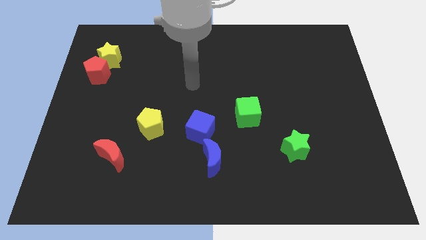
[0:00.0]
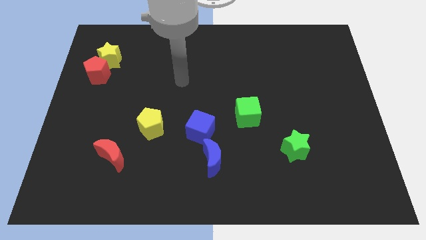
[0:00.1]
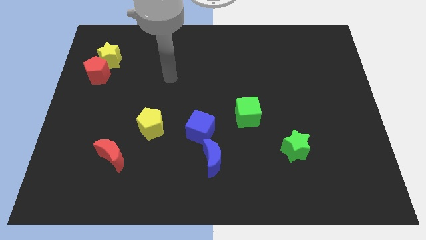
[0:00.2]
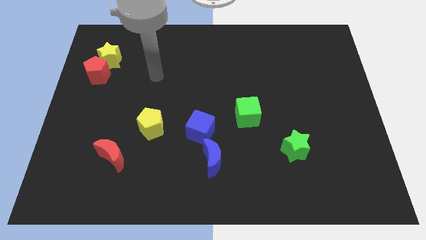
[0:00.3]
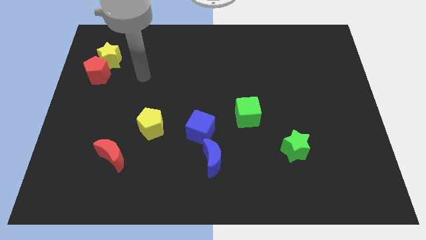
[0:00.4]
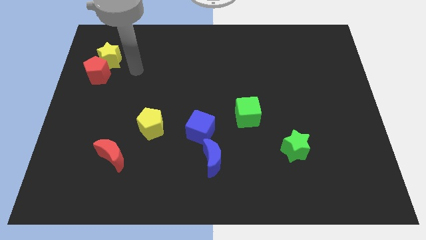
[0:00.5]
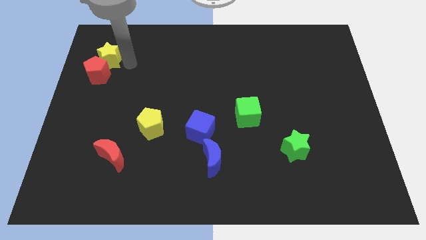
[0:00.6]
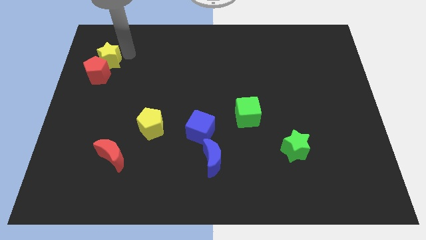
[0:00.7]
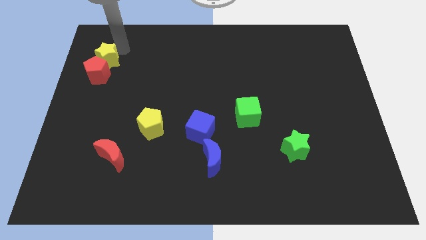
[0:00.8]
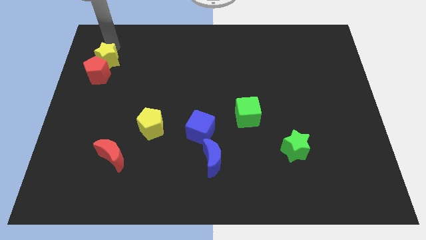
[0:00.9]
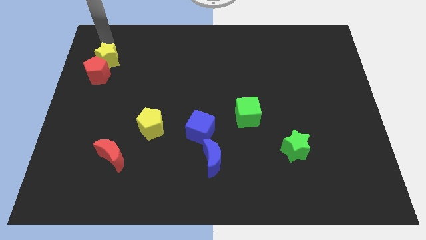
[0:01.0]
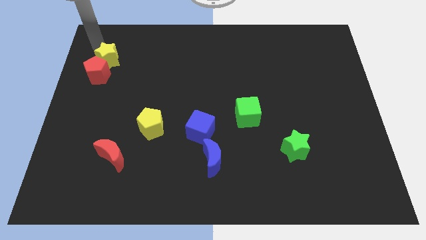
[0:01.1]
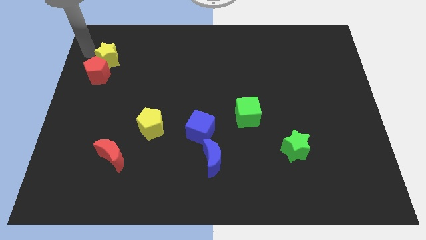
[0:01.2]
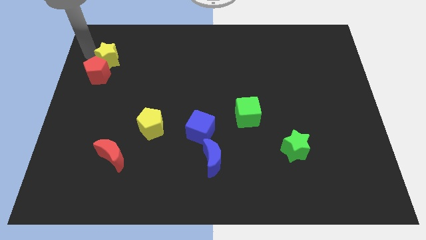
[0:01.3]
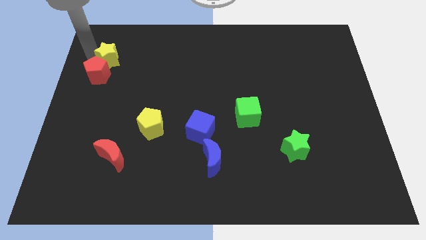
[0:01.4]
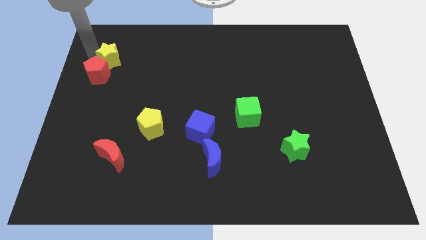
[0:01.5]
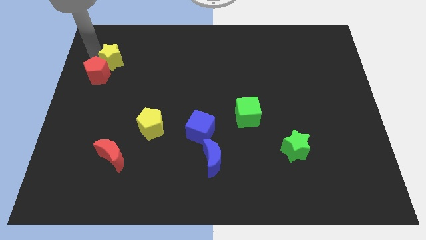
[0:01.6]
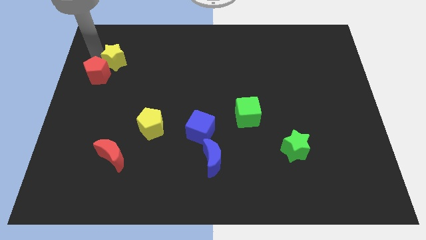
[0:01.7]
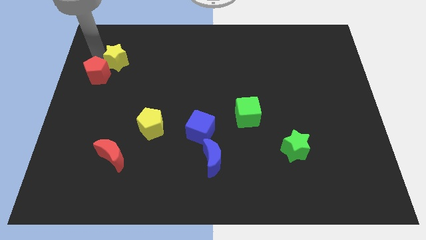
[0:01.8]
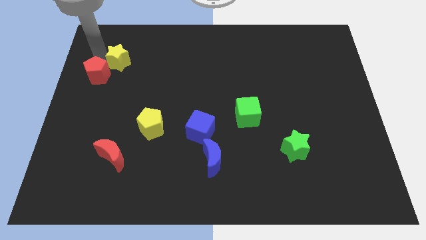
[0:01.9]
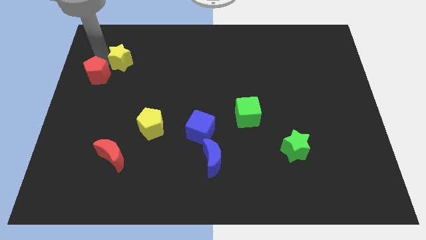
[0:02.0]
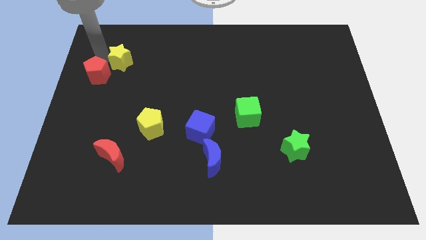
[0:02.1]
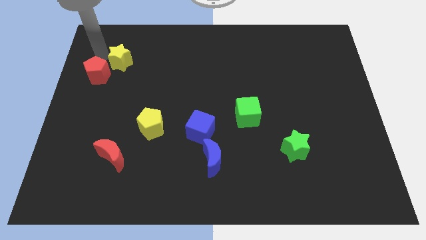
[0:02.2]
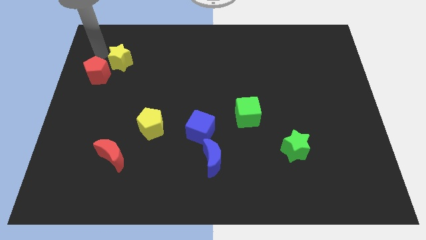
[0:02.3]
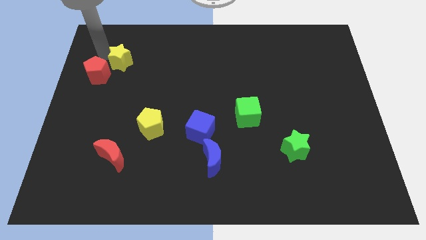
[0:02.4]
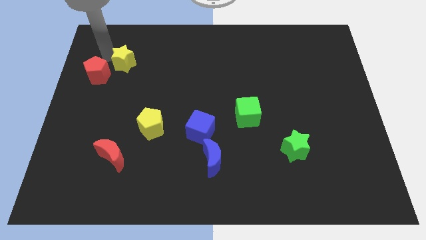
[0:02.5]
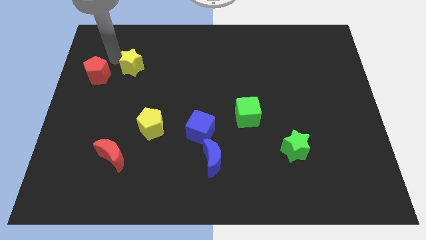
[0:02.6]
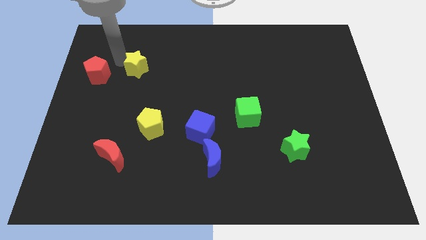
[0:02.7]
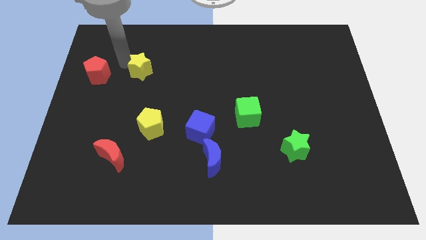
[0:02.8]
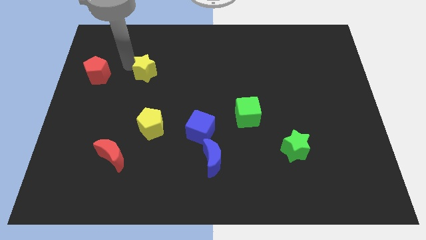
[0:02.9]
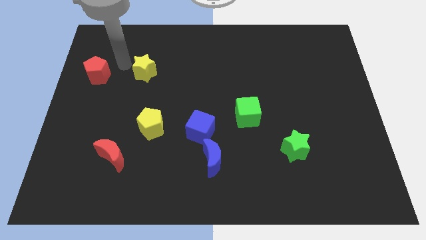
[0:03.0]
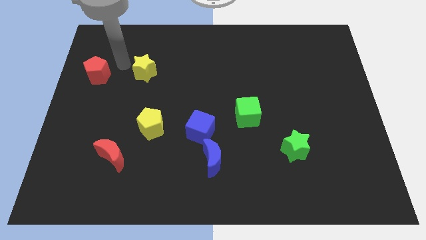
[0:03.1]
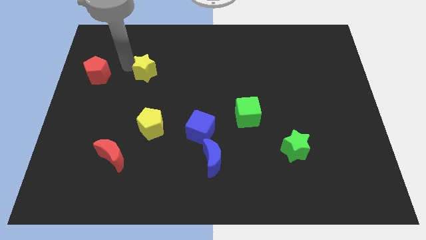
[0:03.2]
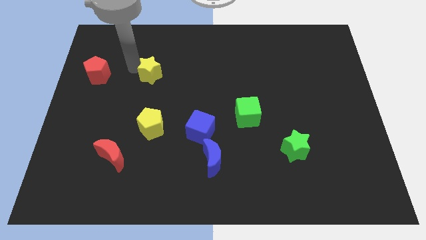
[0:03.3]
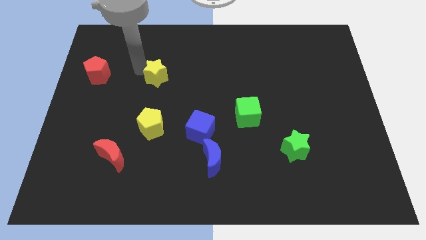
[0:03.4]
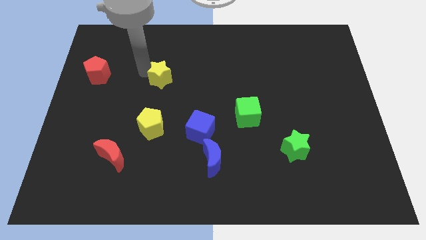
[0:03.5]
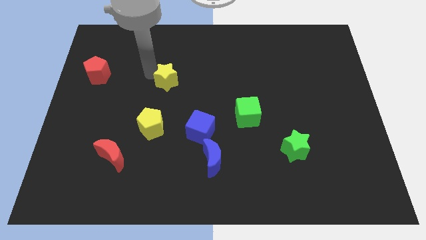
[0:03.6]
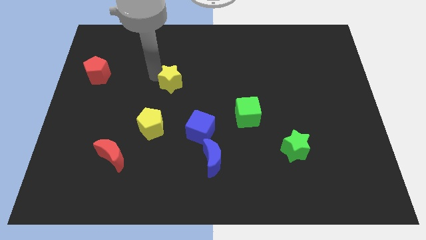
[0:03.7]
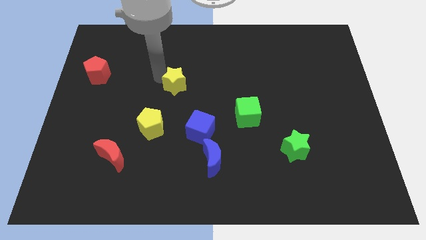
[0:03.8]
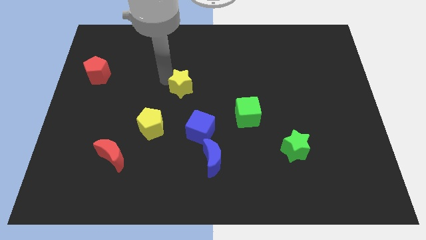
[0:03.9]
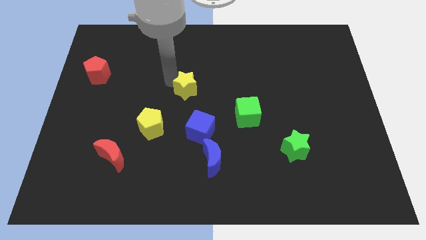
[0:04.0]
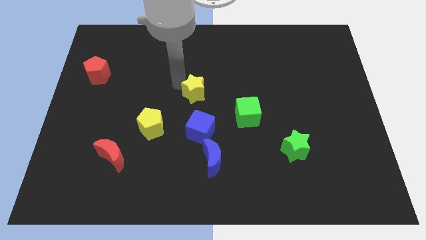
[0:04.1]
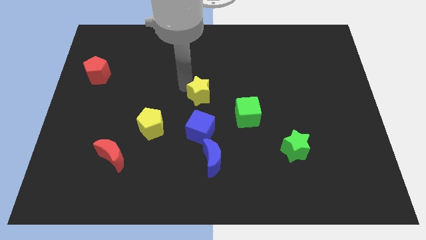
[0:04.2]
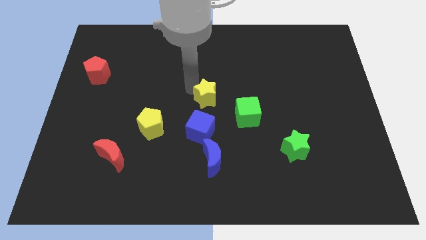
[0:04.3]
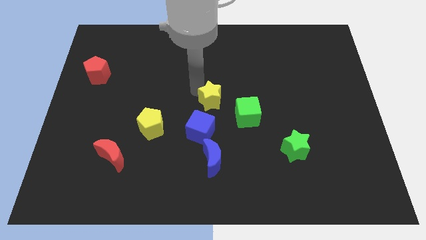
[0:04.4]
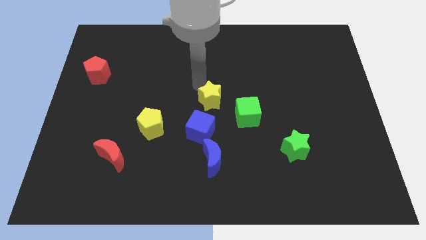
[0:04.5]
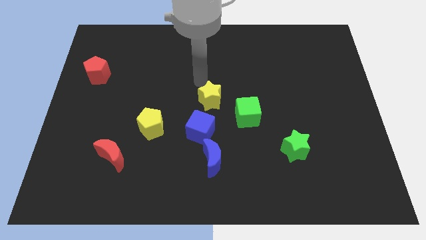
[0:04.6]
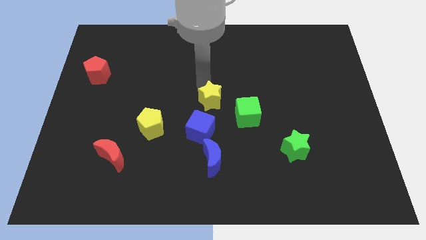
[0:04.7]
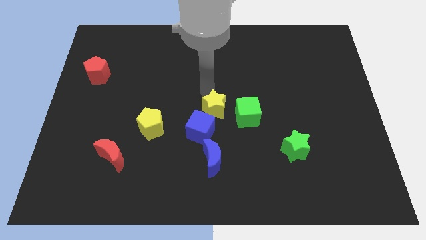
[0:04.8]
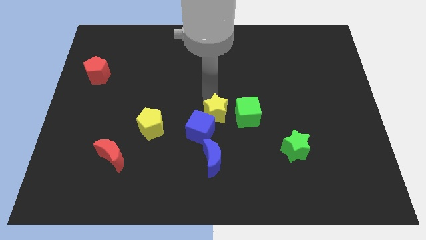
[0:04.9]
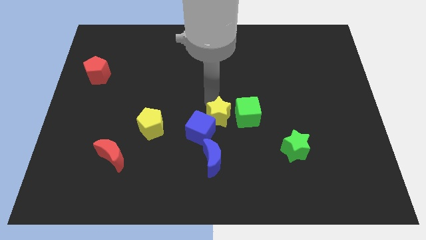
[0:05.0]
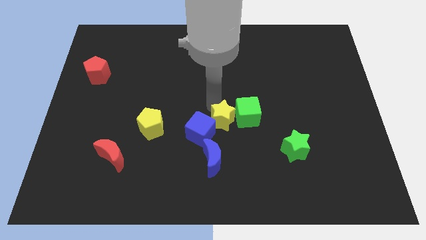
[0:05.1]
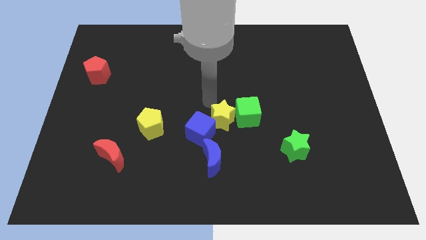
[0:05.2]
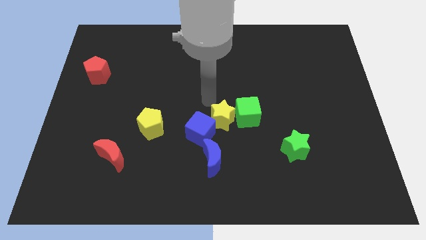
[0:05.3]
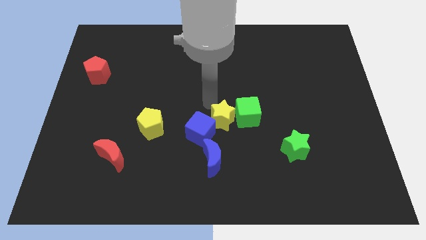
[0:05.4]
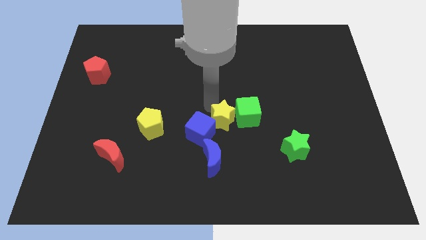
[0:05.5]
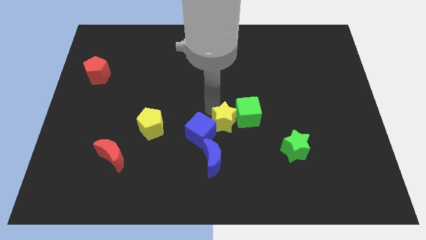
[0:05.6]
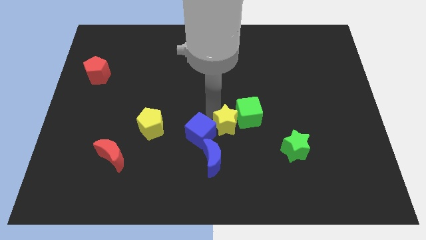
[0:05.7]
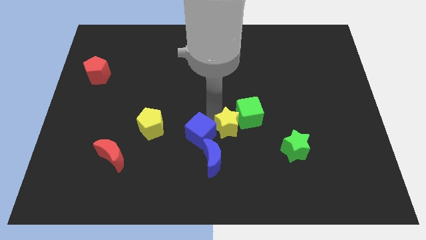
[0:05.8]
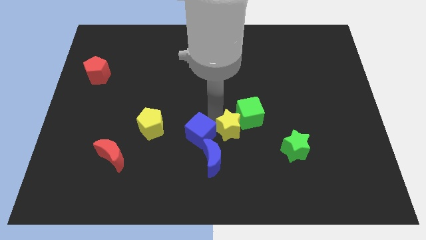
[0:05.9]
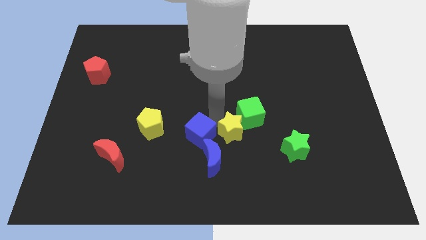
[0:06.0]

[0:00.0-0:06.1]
put the yellow star to the left of the green star

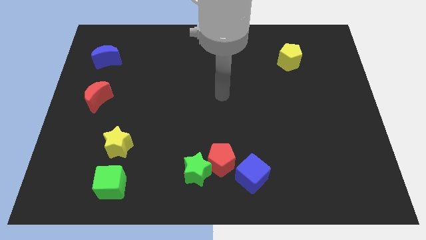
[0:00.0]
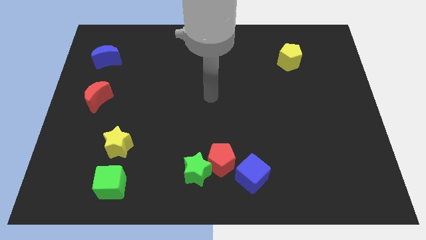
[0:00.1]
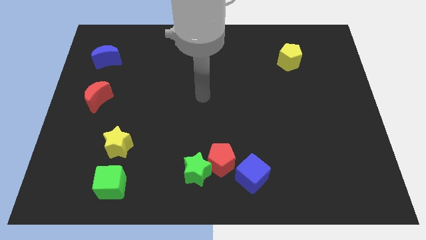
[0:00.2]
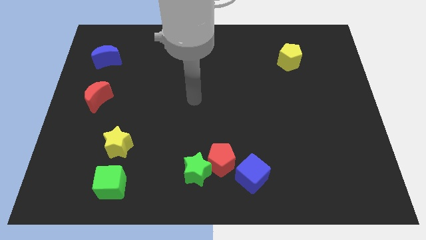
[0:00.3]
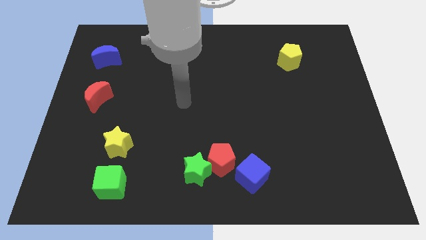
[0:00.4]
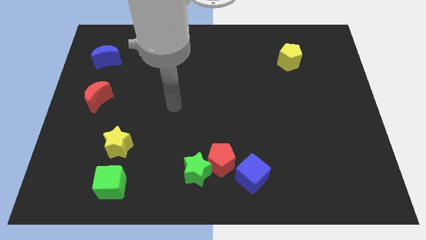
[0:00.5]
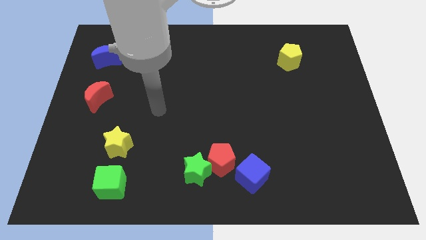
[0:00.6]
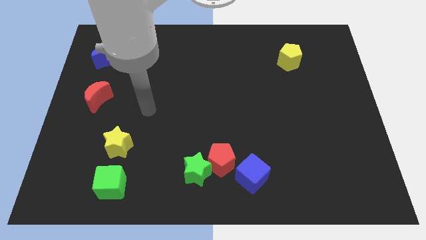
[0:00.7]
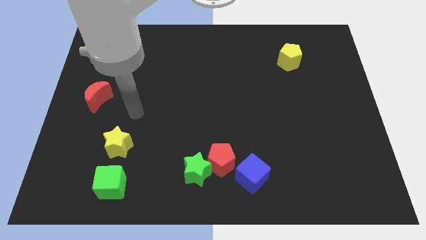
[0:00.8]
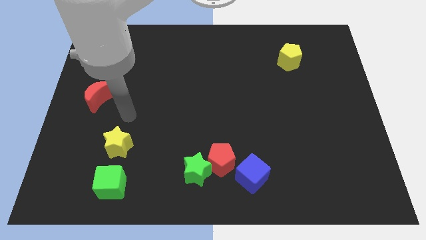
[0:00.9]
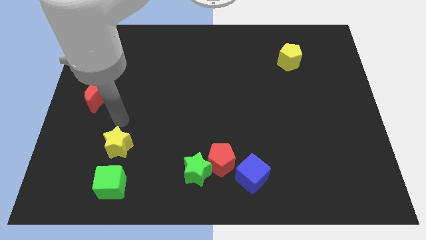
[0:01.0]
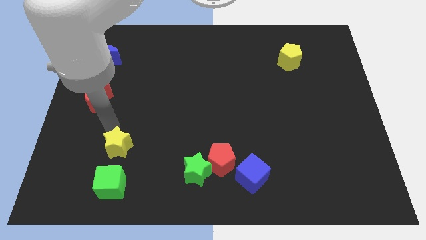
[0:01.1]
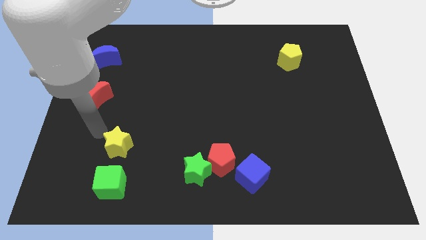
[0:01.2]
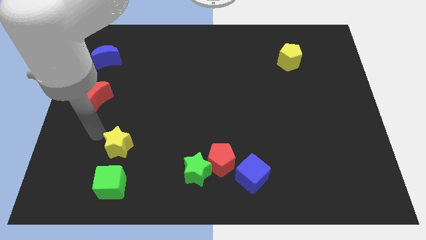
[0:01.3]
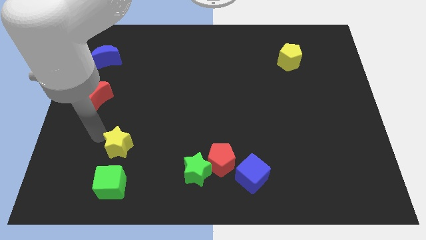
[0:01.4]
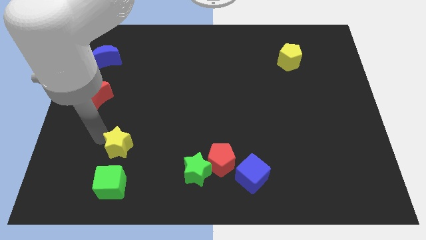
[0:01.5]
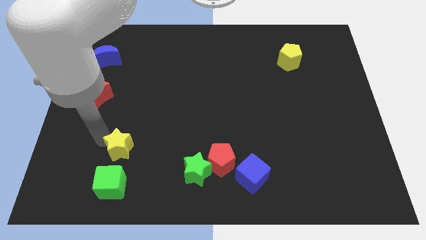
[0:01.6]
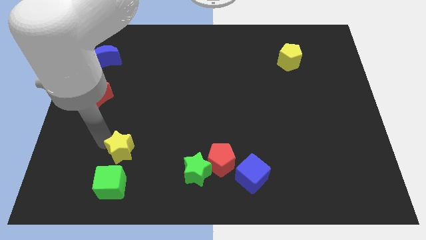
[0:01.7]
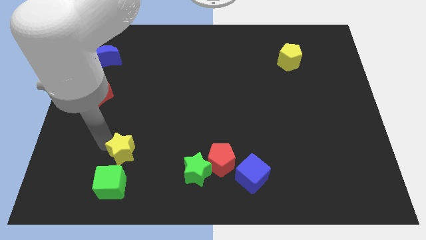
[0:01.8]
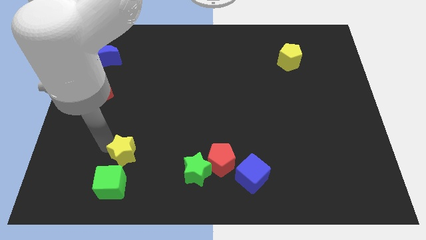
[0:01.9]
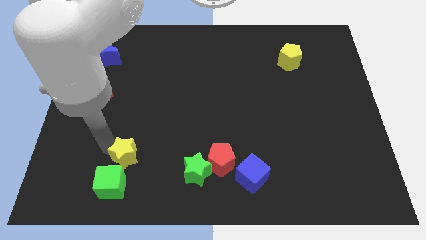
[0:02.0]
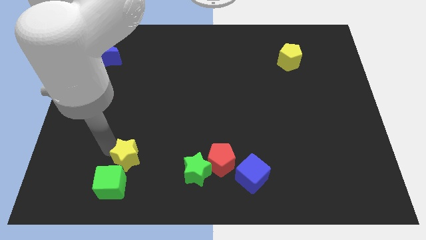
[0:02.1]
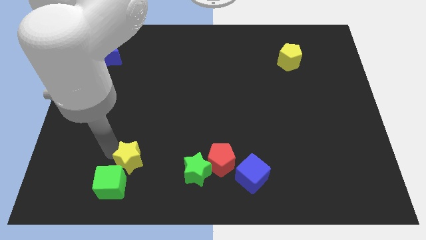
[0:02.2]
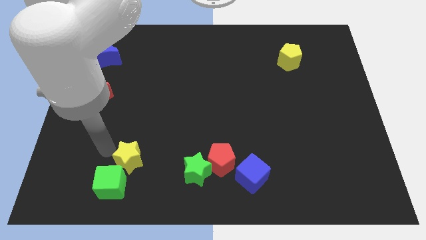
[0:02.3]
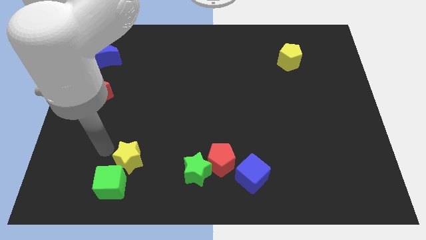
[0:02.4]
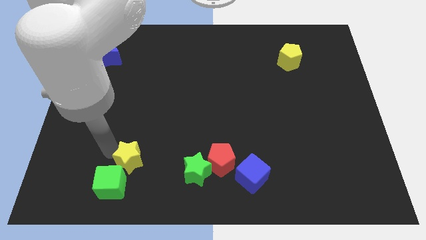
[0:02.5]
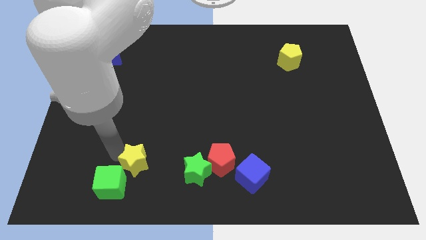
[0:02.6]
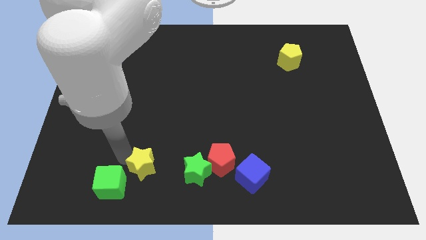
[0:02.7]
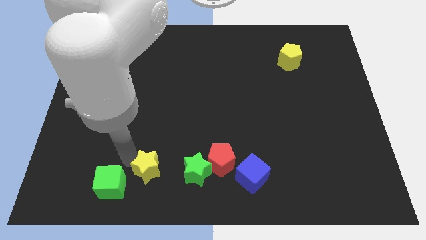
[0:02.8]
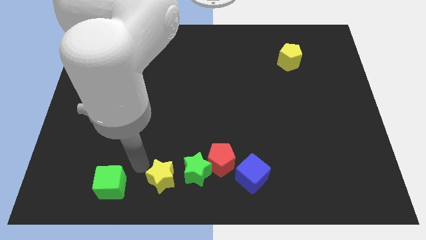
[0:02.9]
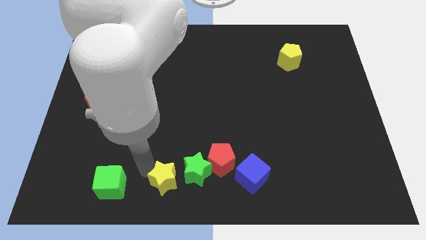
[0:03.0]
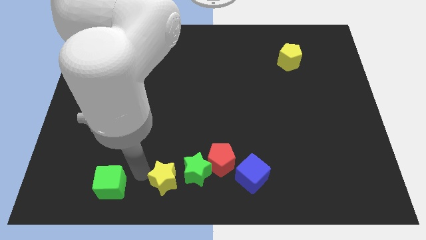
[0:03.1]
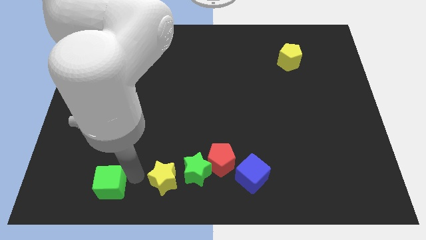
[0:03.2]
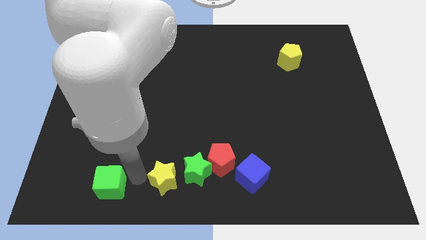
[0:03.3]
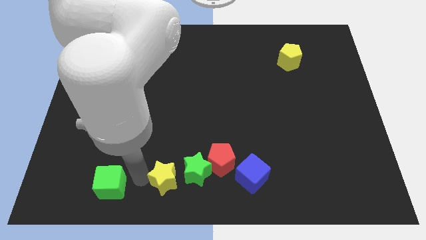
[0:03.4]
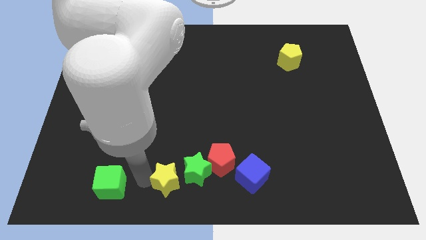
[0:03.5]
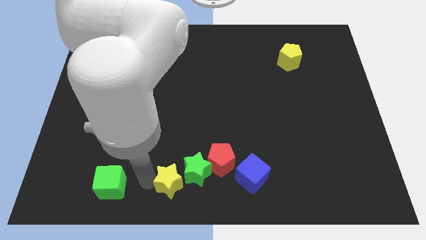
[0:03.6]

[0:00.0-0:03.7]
push the yellow star to the bottom left of the red pentagon
